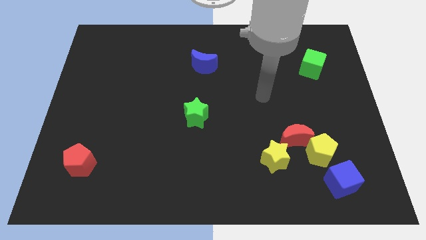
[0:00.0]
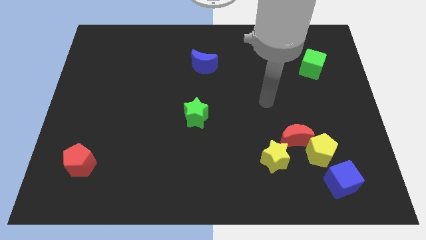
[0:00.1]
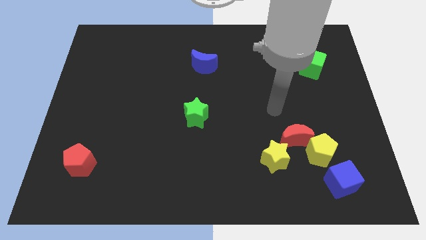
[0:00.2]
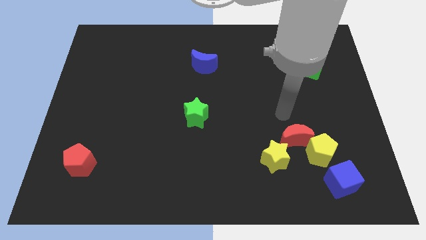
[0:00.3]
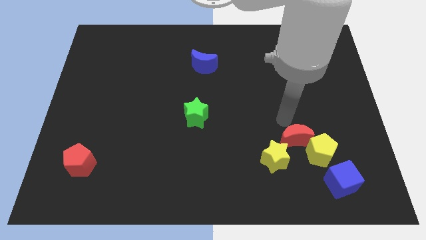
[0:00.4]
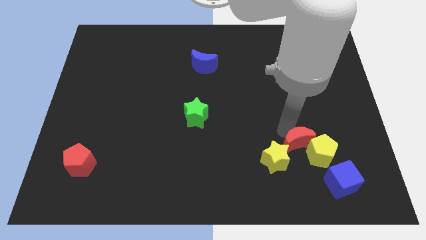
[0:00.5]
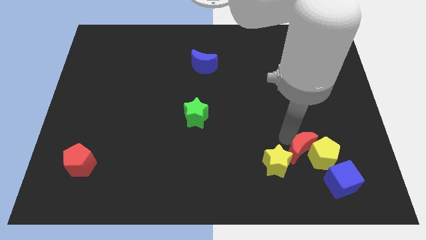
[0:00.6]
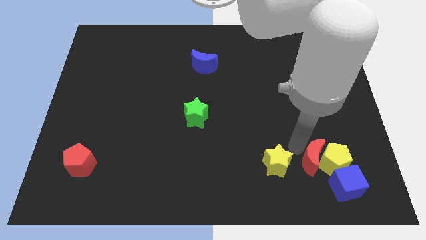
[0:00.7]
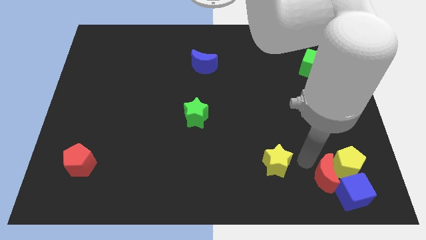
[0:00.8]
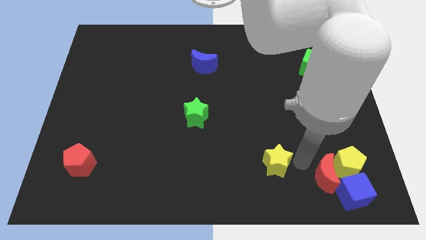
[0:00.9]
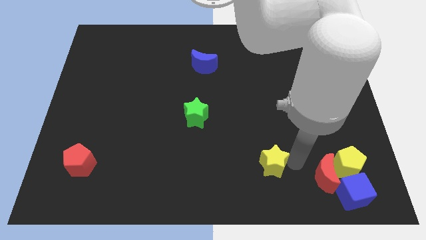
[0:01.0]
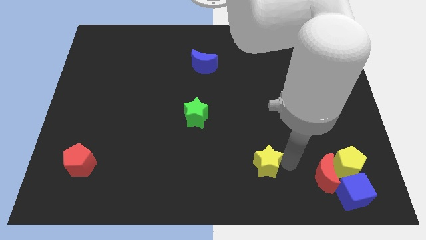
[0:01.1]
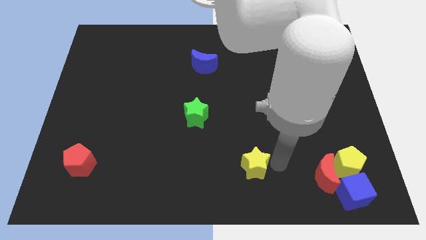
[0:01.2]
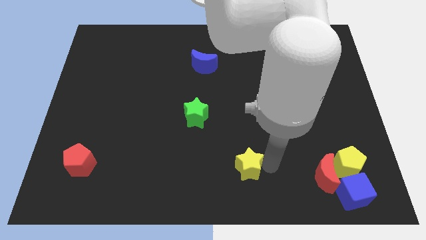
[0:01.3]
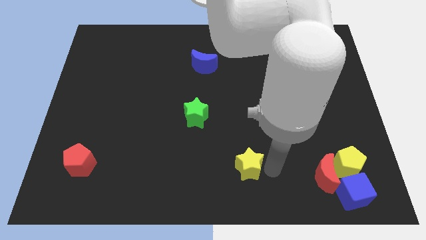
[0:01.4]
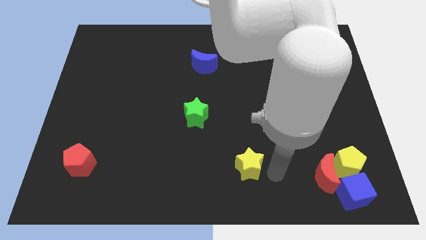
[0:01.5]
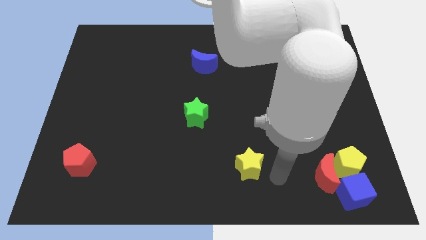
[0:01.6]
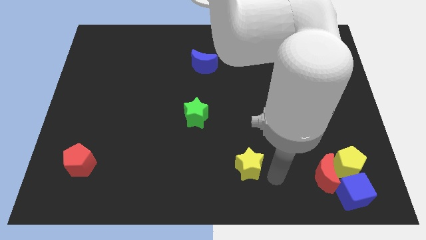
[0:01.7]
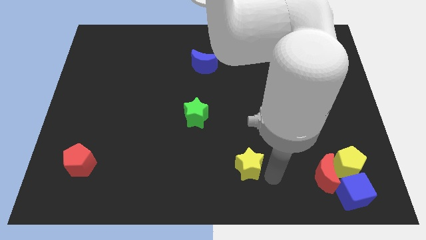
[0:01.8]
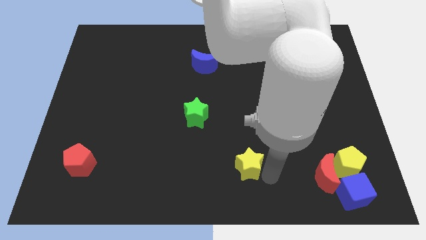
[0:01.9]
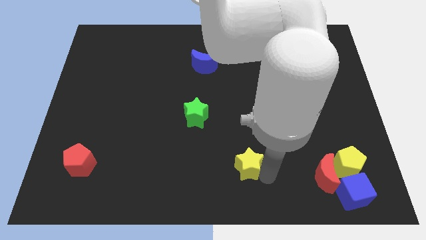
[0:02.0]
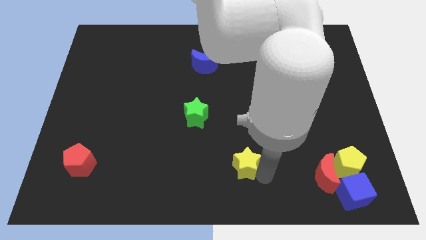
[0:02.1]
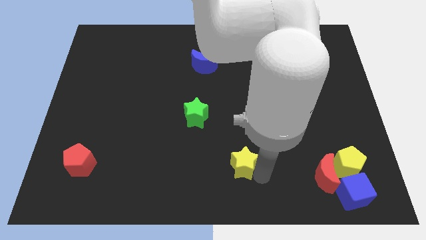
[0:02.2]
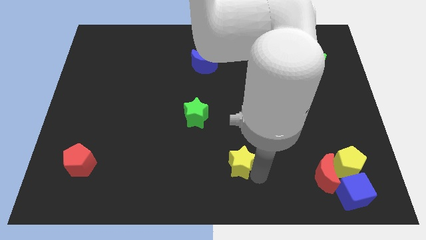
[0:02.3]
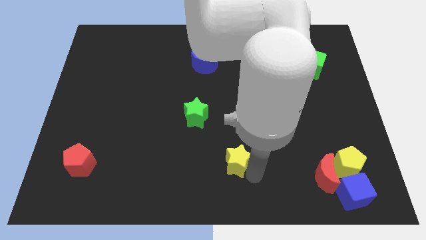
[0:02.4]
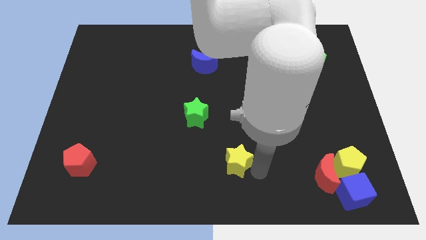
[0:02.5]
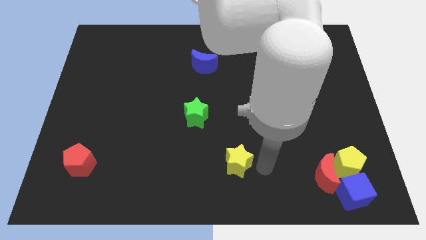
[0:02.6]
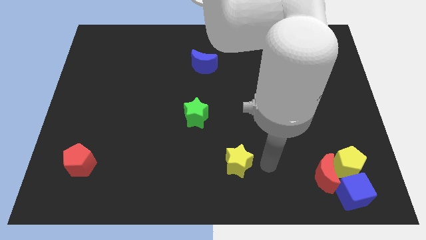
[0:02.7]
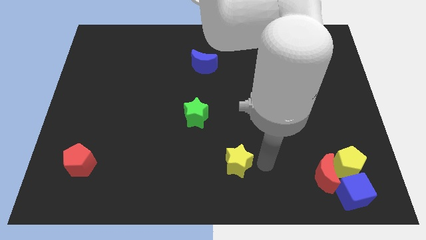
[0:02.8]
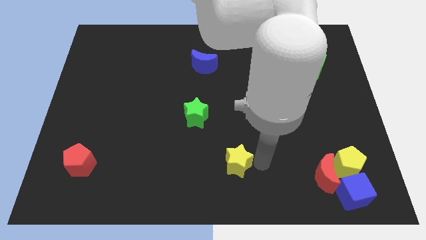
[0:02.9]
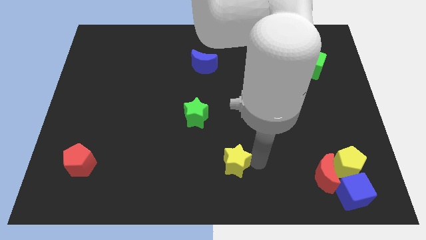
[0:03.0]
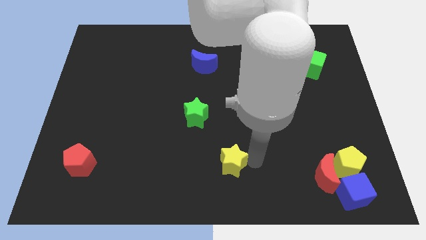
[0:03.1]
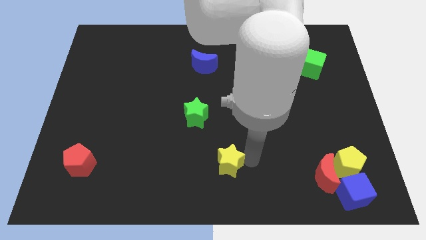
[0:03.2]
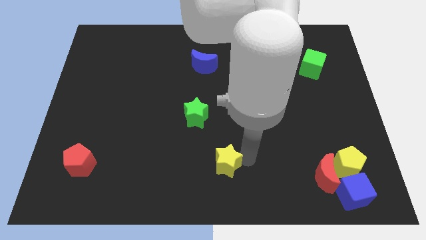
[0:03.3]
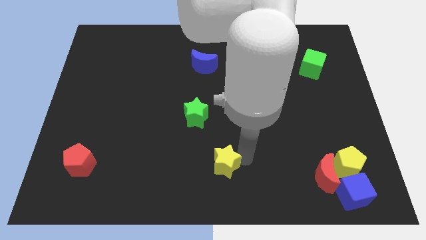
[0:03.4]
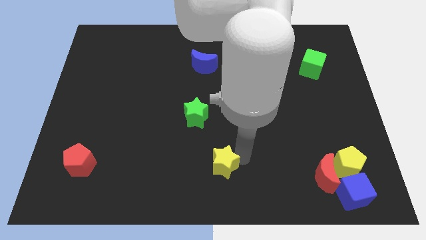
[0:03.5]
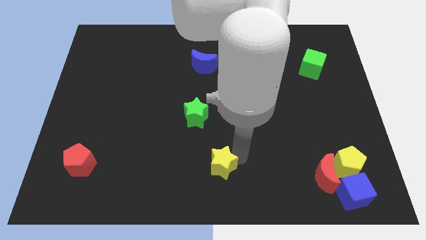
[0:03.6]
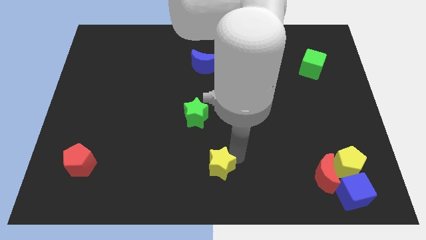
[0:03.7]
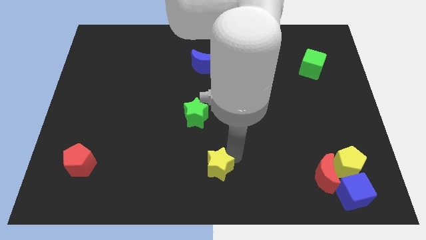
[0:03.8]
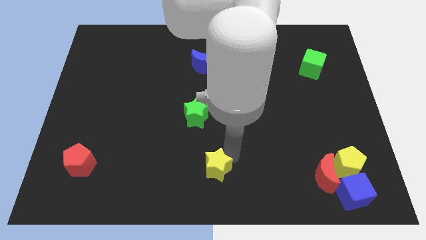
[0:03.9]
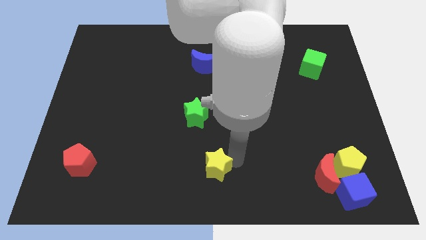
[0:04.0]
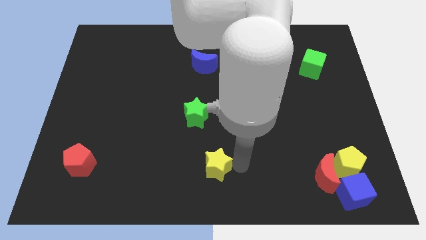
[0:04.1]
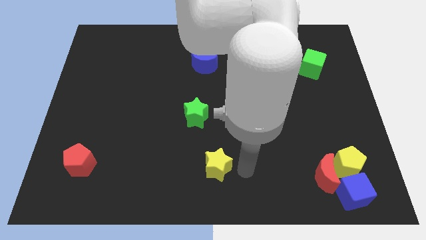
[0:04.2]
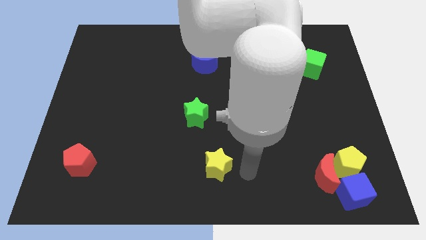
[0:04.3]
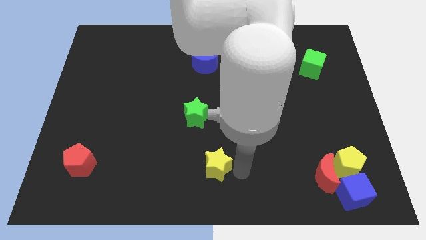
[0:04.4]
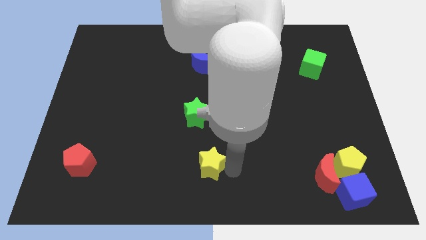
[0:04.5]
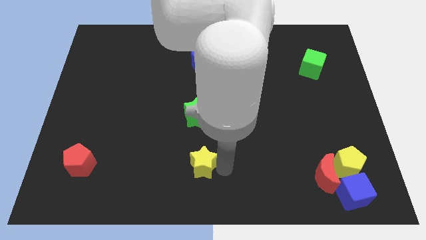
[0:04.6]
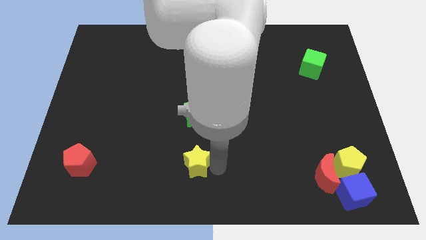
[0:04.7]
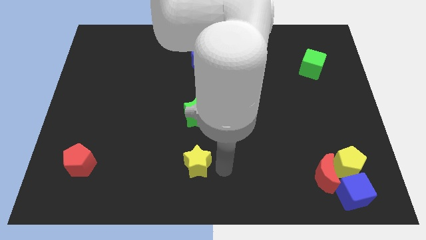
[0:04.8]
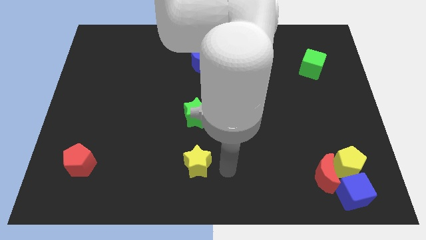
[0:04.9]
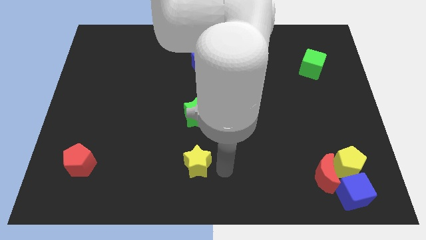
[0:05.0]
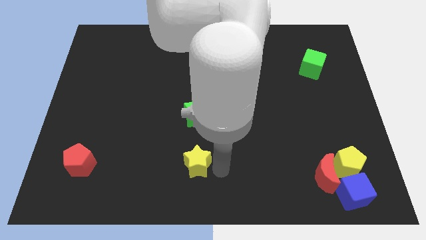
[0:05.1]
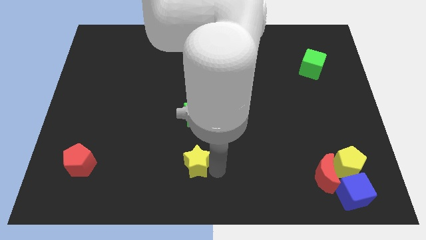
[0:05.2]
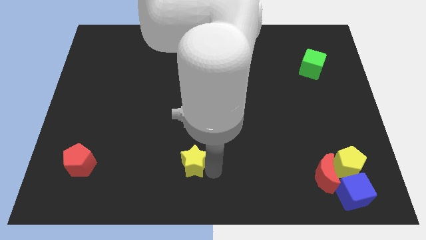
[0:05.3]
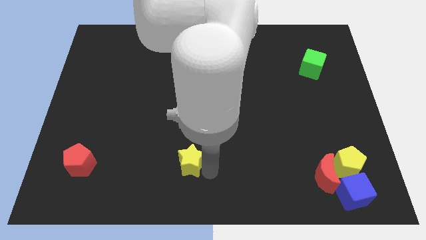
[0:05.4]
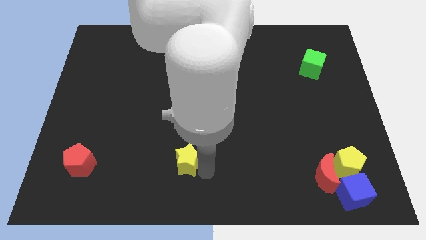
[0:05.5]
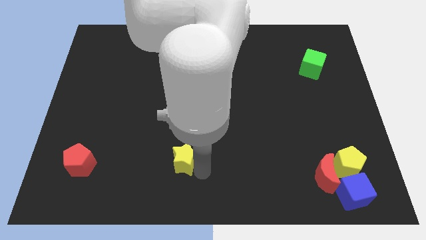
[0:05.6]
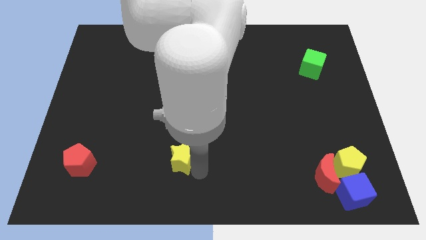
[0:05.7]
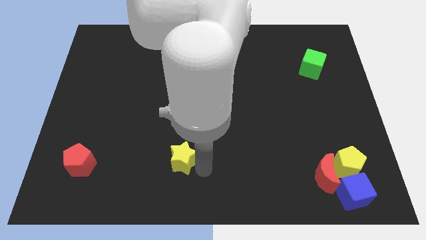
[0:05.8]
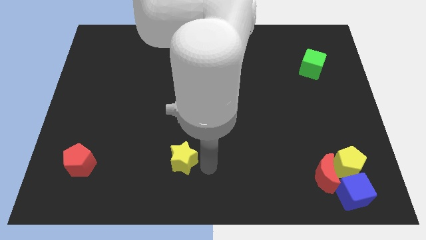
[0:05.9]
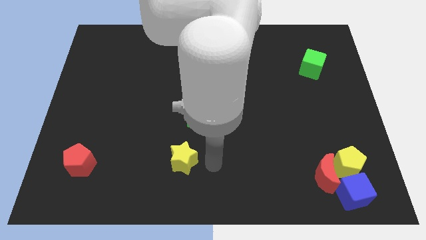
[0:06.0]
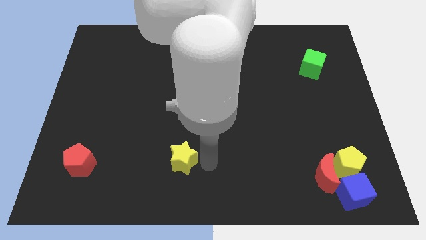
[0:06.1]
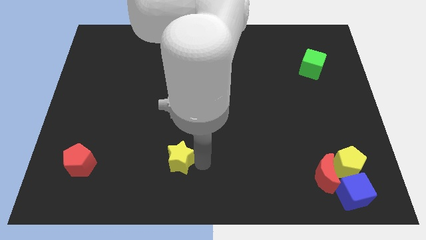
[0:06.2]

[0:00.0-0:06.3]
push the yellow star left

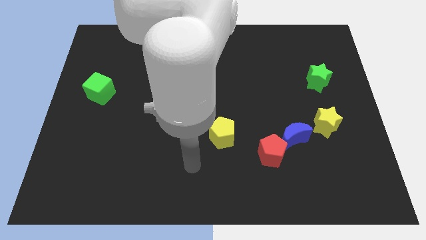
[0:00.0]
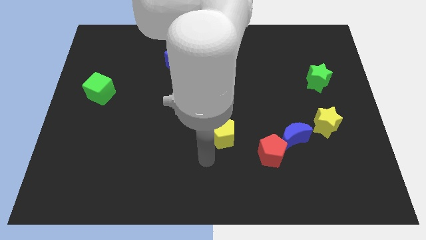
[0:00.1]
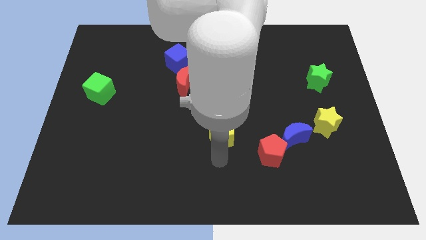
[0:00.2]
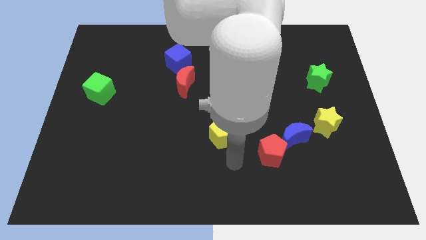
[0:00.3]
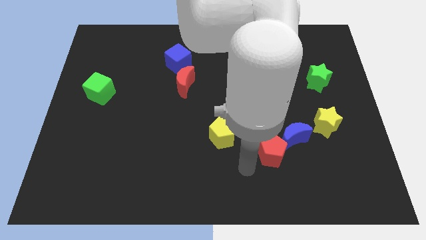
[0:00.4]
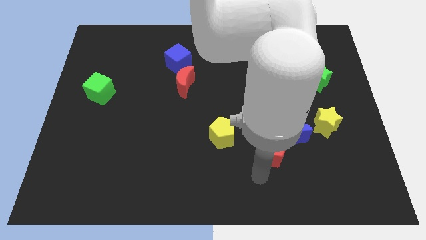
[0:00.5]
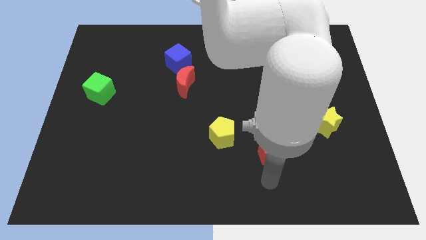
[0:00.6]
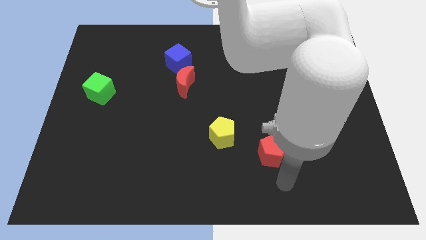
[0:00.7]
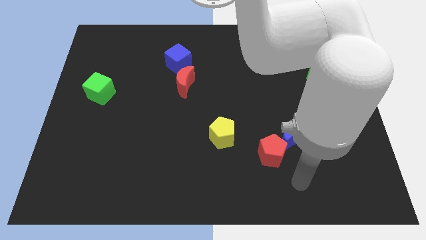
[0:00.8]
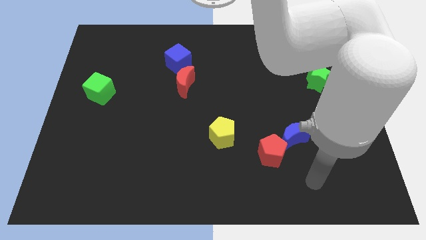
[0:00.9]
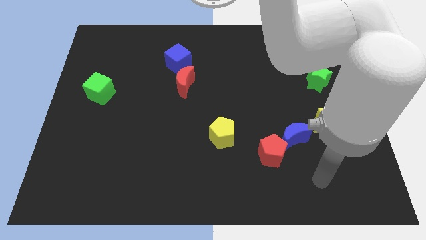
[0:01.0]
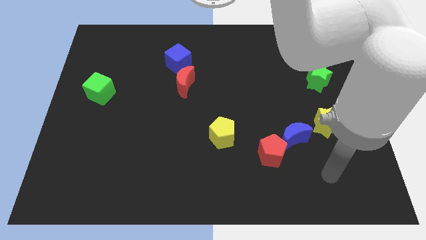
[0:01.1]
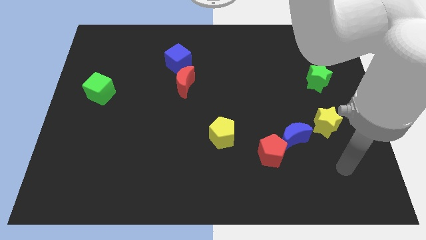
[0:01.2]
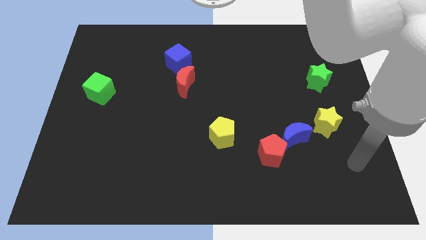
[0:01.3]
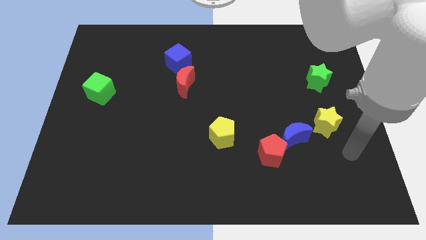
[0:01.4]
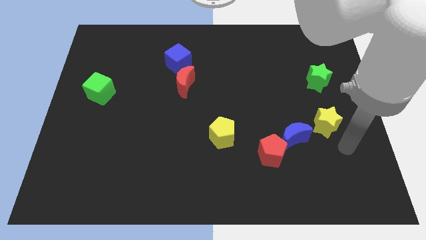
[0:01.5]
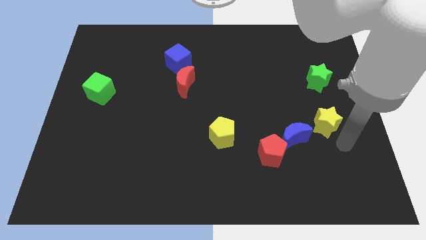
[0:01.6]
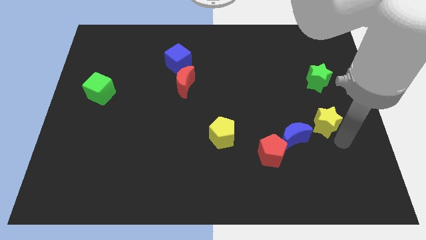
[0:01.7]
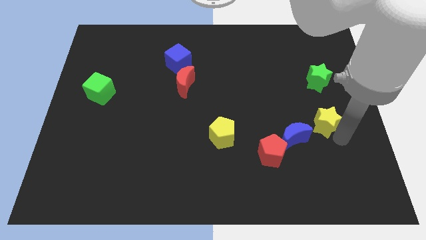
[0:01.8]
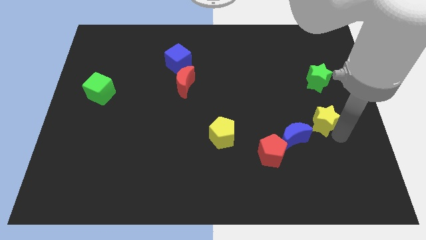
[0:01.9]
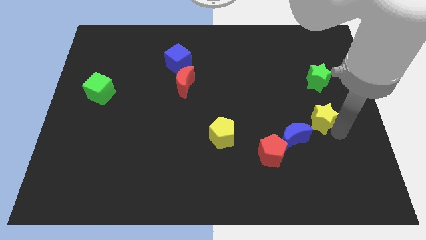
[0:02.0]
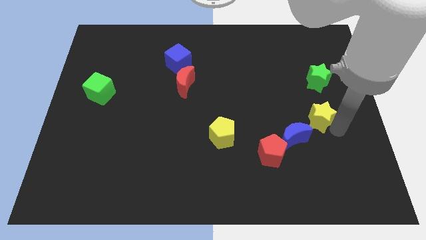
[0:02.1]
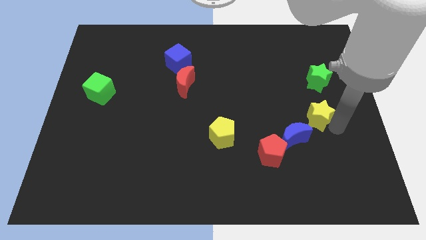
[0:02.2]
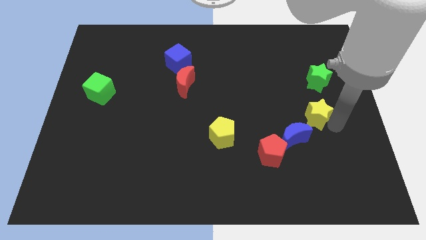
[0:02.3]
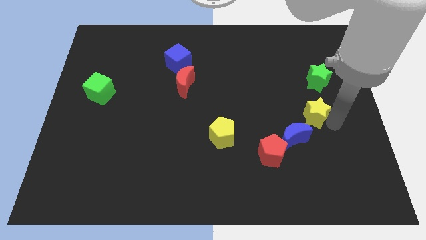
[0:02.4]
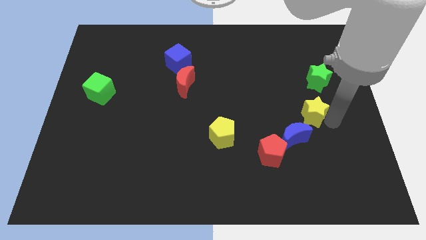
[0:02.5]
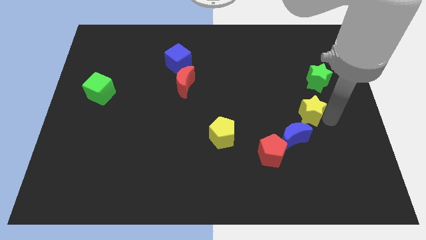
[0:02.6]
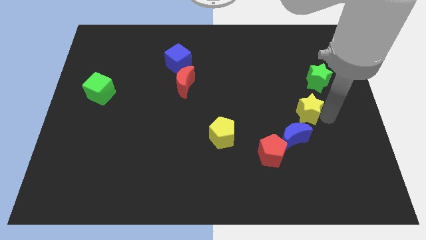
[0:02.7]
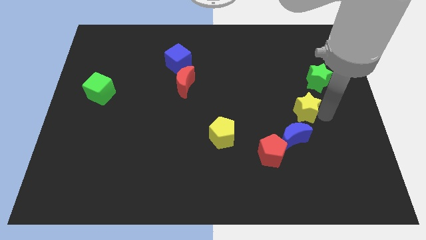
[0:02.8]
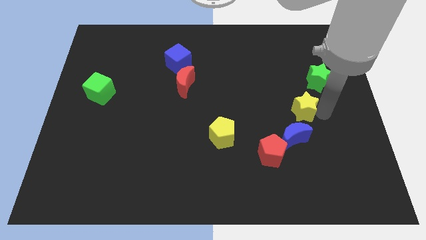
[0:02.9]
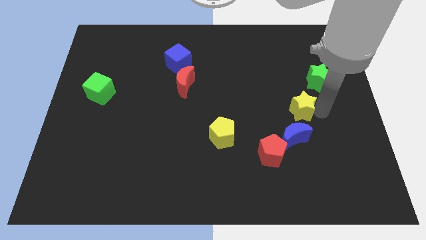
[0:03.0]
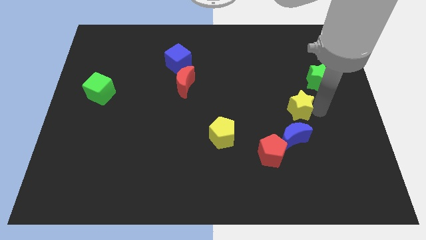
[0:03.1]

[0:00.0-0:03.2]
move the yellow star slightly upwards and then left
